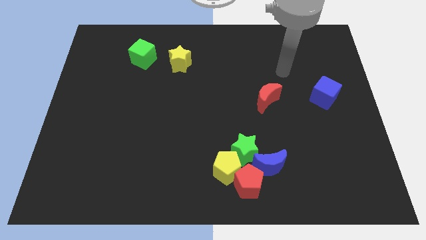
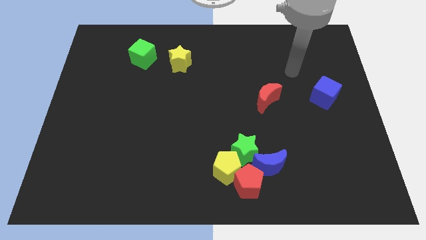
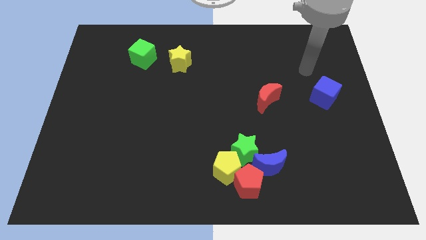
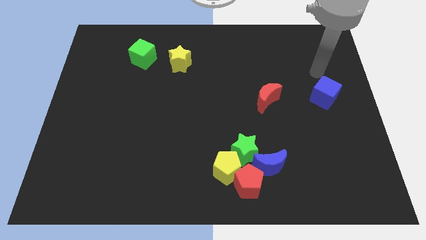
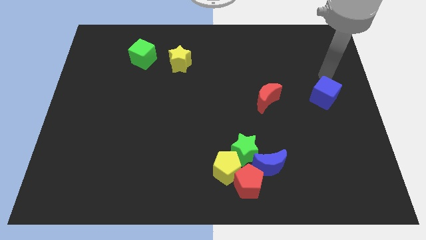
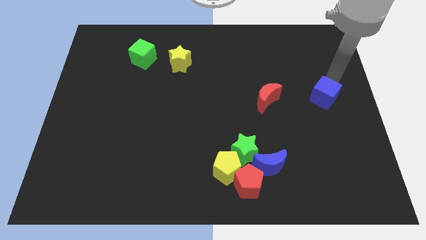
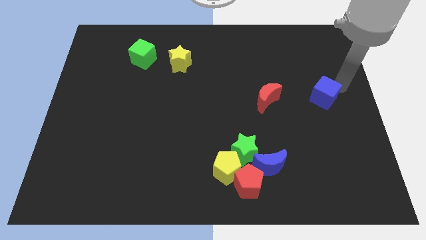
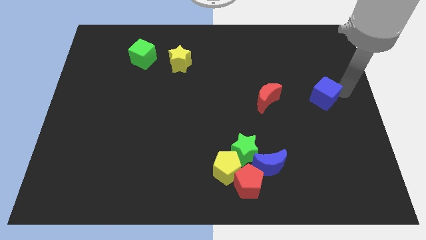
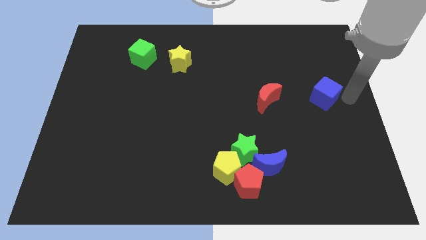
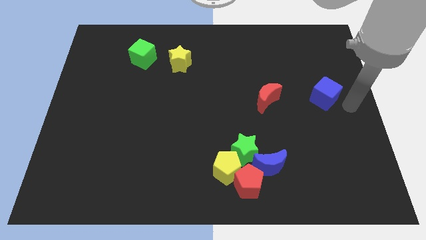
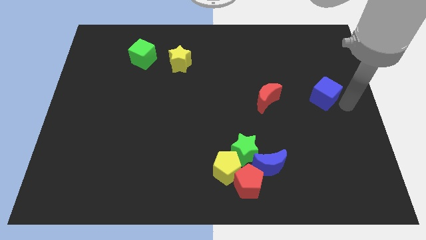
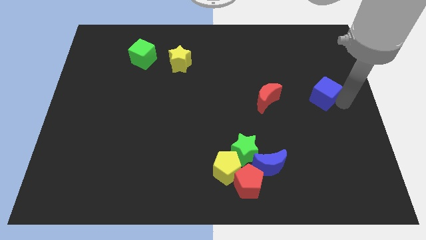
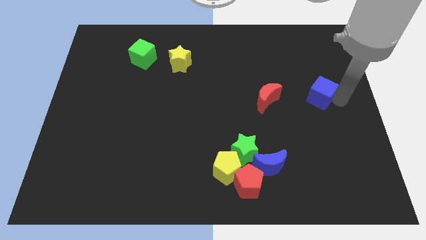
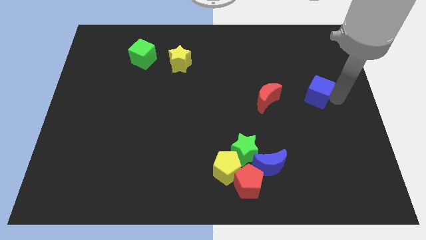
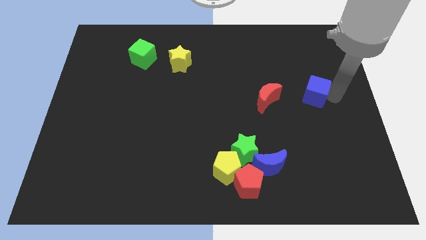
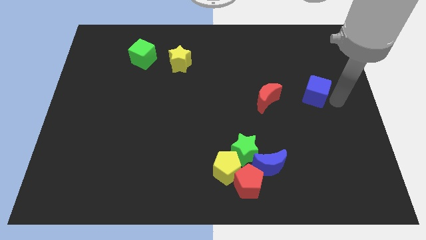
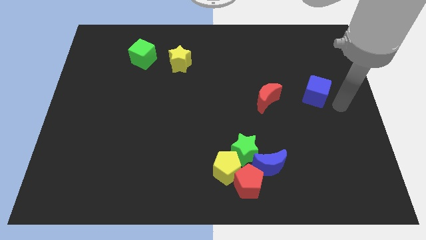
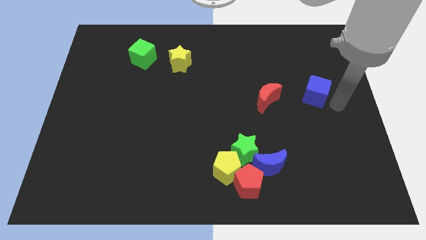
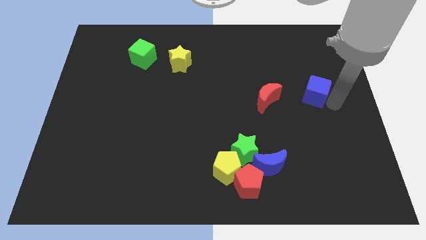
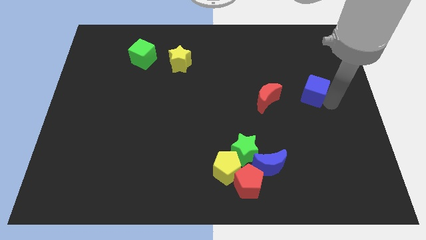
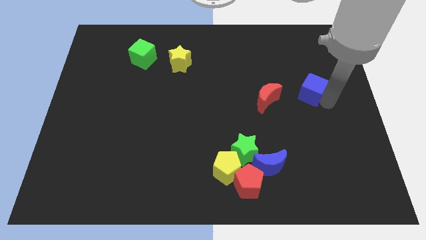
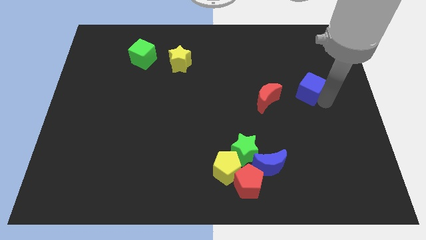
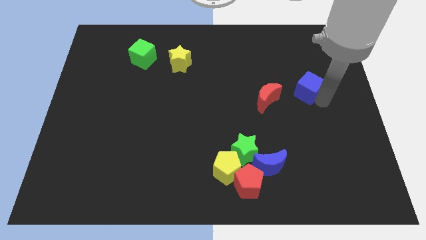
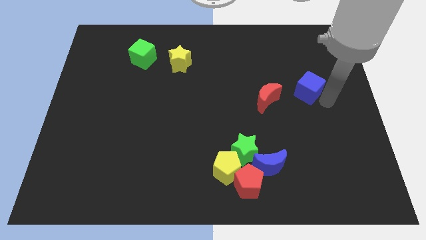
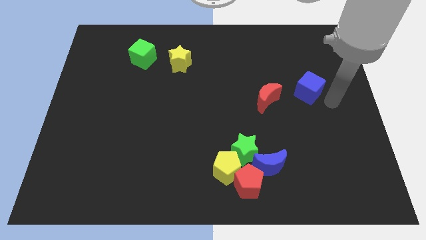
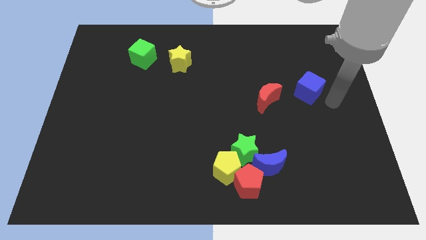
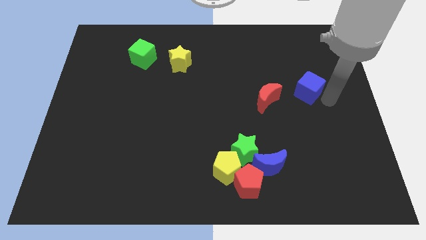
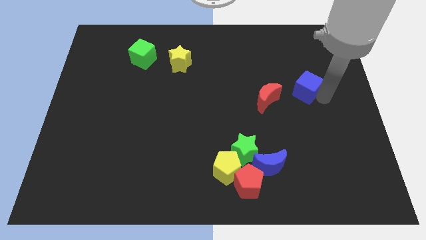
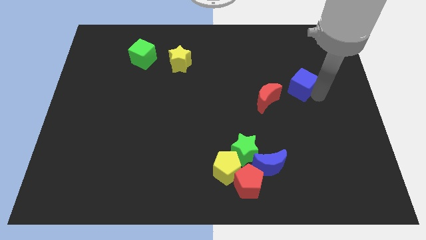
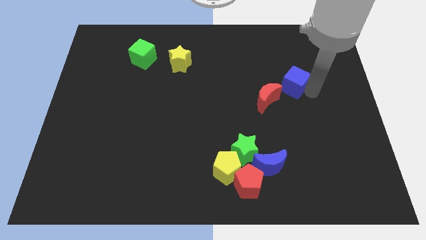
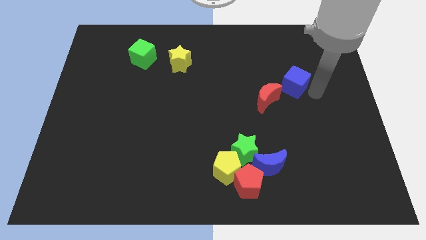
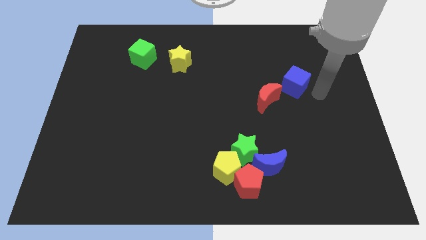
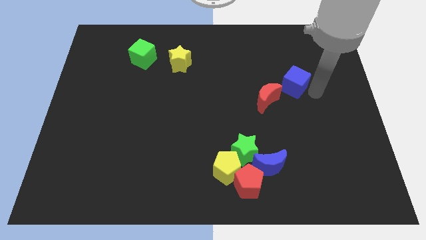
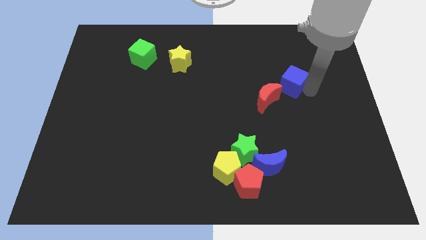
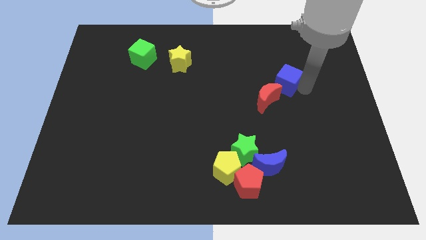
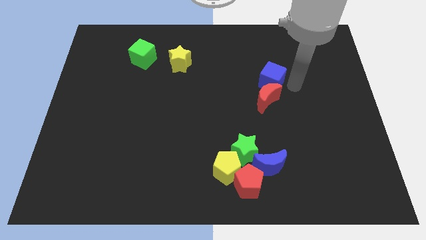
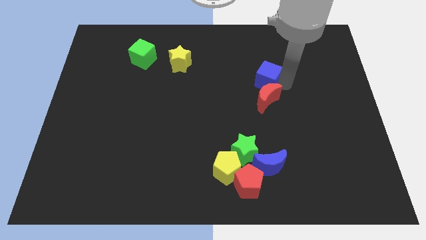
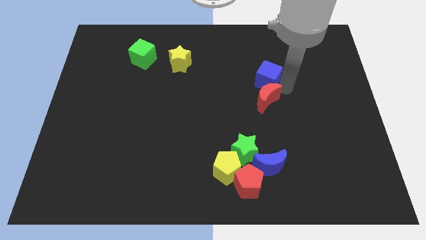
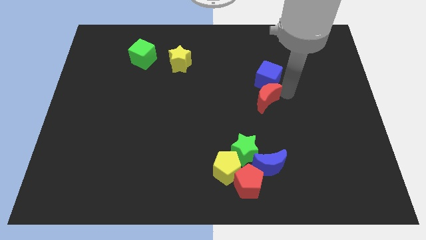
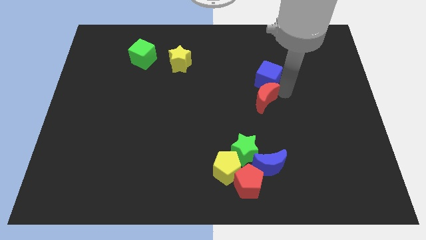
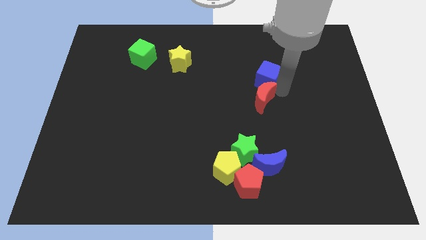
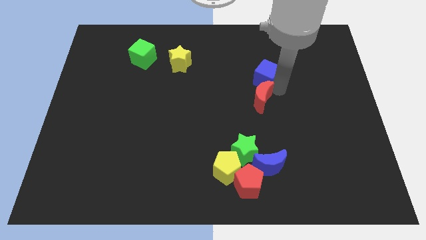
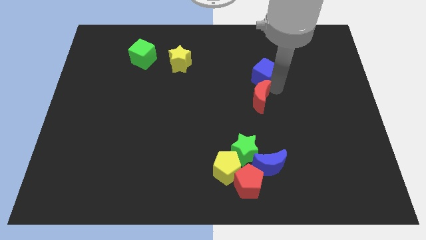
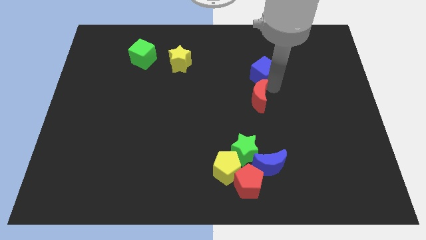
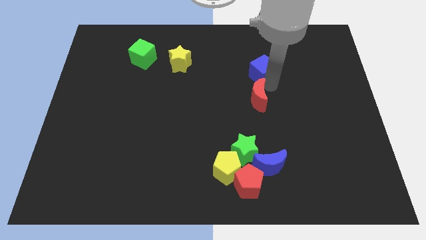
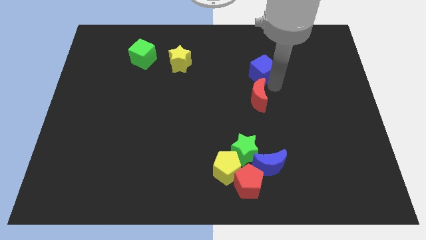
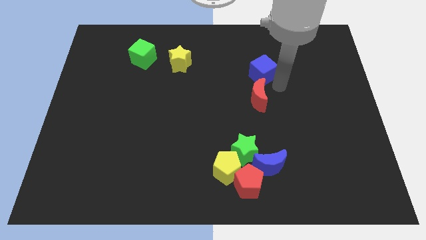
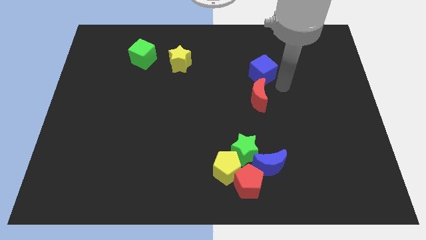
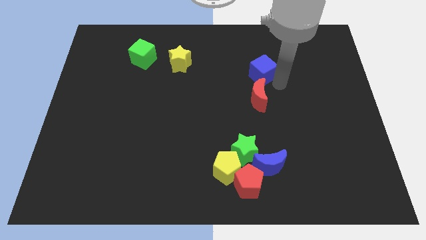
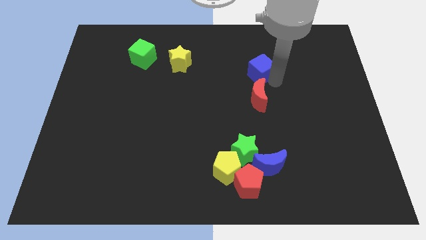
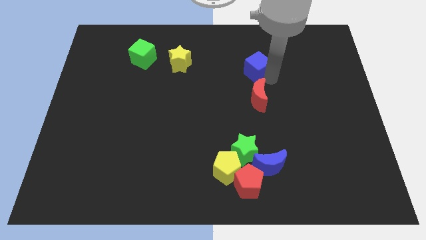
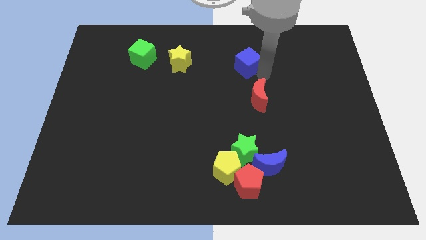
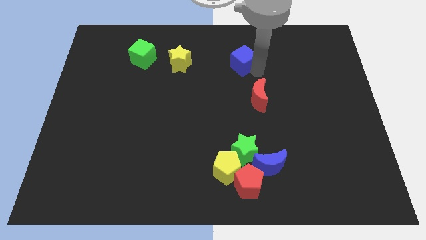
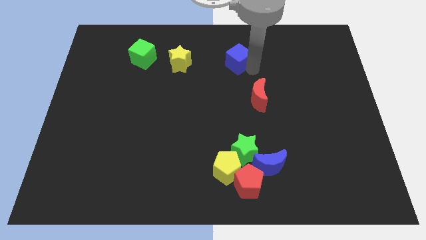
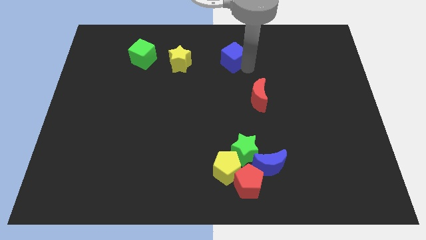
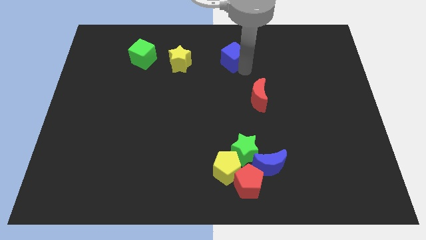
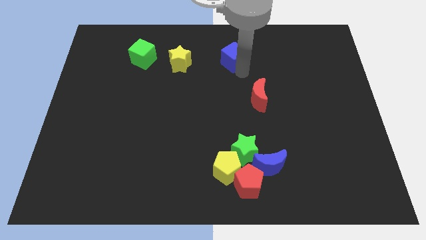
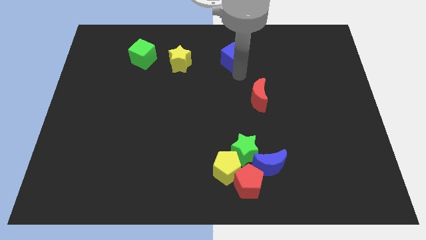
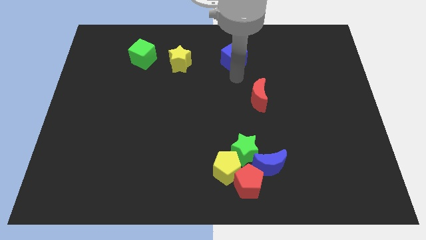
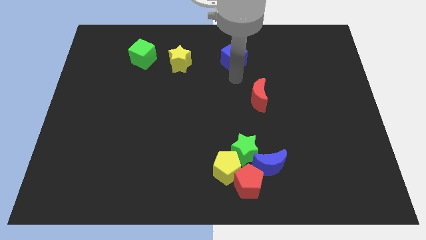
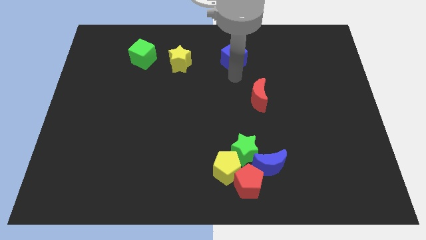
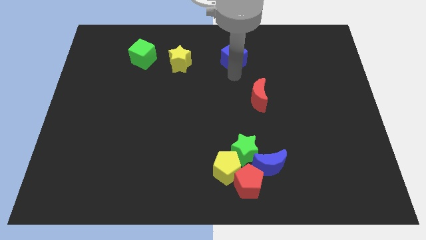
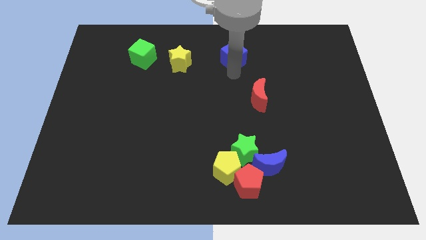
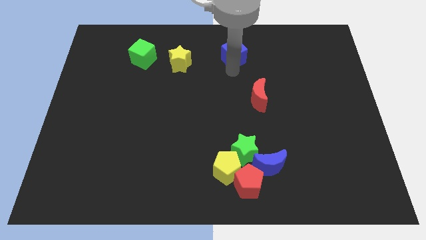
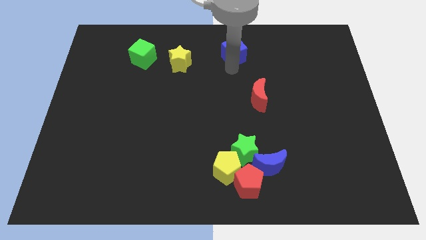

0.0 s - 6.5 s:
move the blue cube to the top
